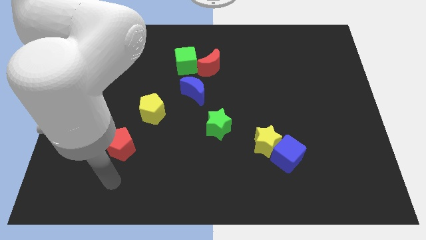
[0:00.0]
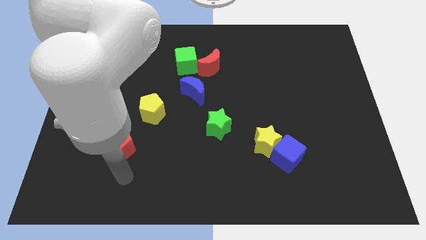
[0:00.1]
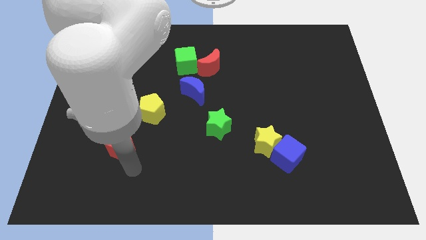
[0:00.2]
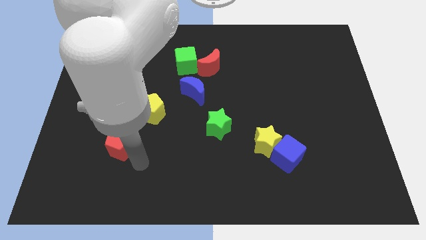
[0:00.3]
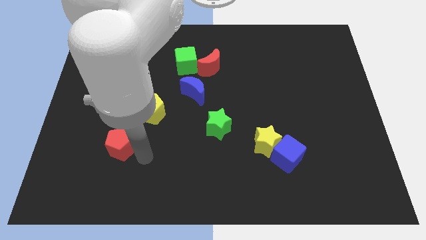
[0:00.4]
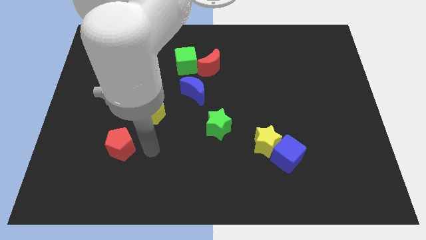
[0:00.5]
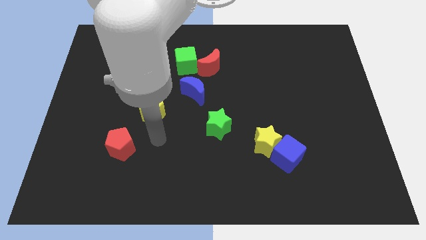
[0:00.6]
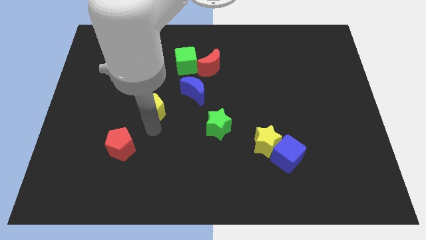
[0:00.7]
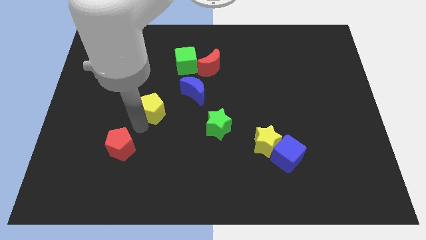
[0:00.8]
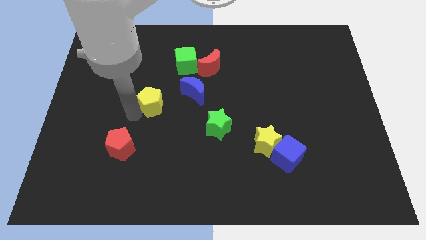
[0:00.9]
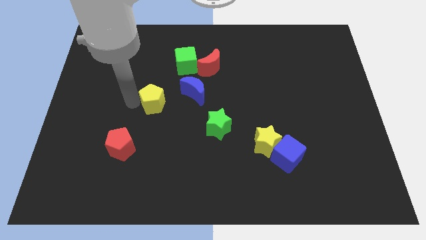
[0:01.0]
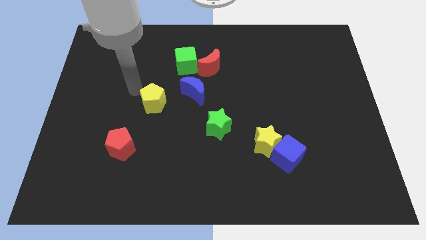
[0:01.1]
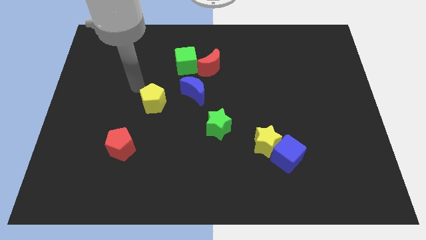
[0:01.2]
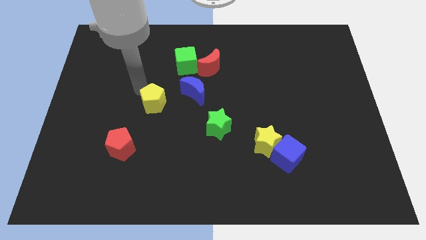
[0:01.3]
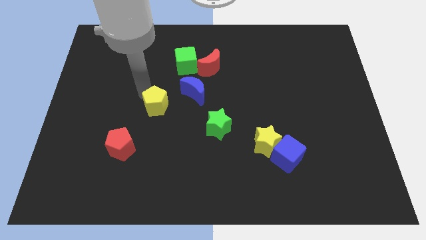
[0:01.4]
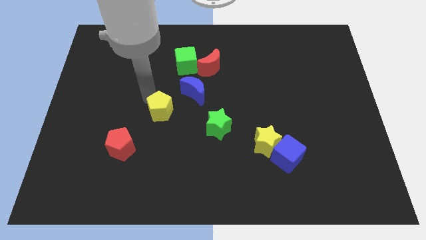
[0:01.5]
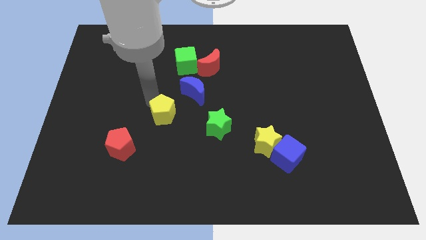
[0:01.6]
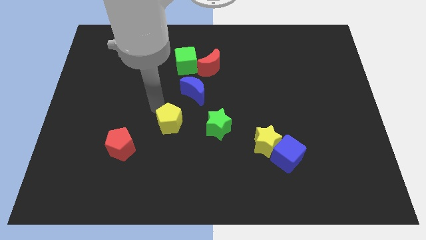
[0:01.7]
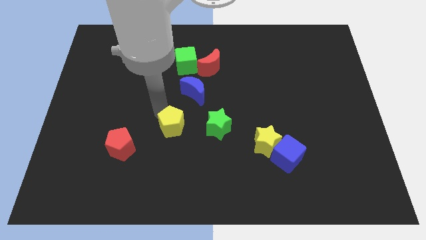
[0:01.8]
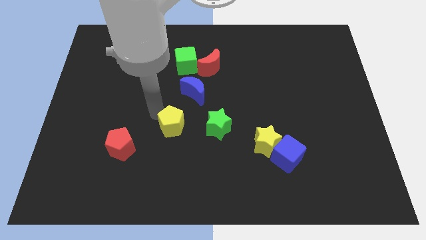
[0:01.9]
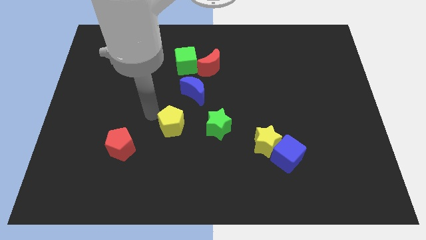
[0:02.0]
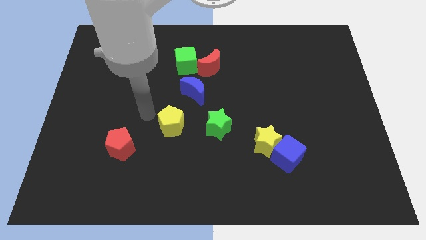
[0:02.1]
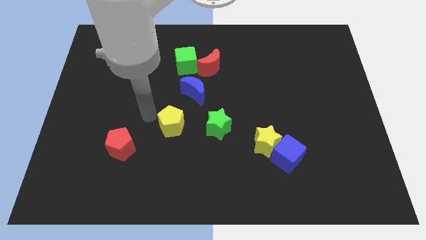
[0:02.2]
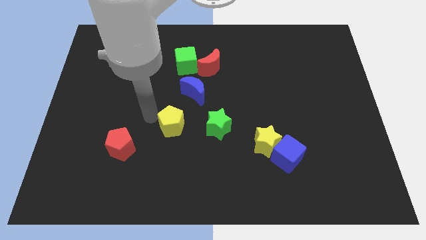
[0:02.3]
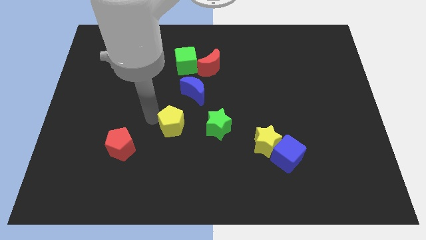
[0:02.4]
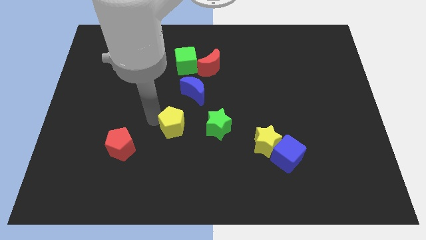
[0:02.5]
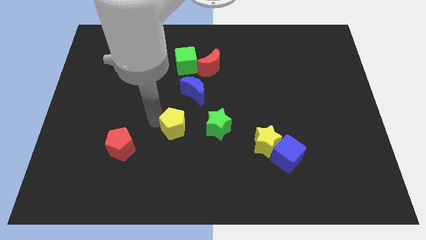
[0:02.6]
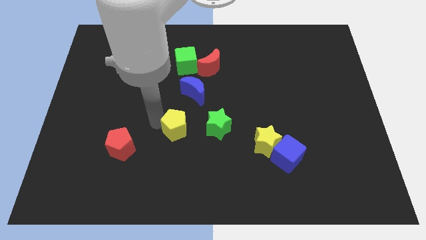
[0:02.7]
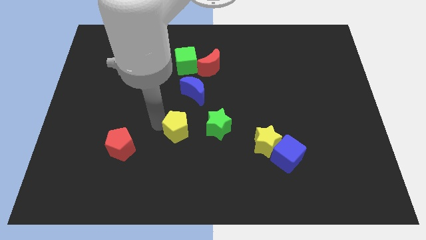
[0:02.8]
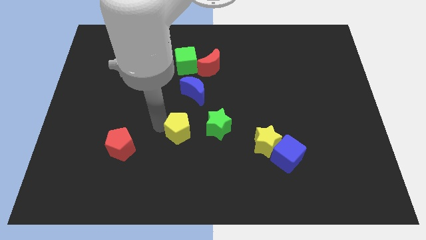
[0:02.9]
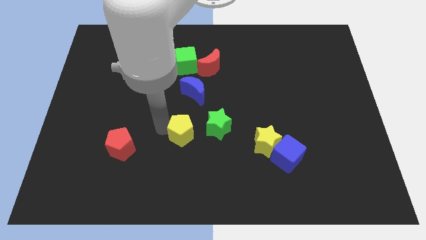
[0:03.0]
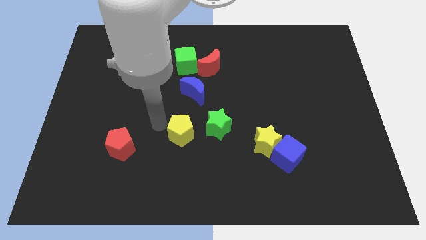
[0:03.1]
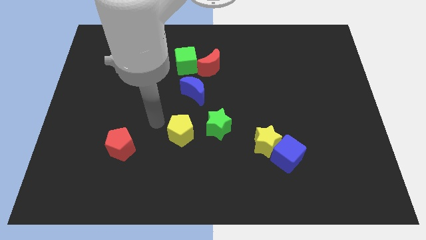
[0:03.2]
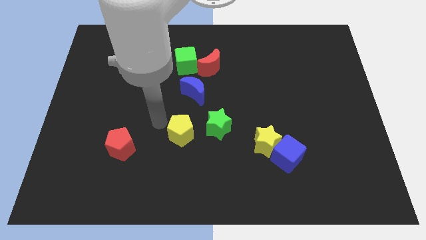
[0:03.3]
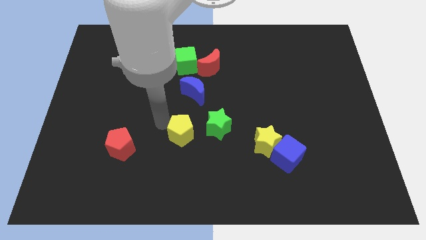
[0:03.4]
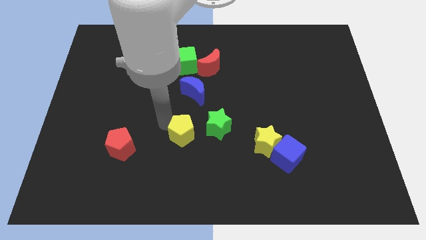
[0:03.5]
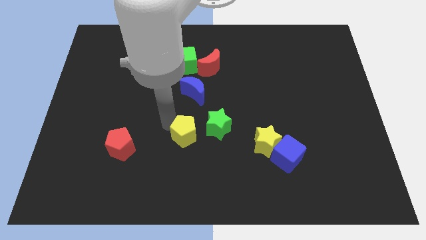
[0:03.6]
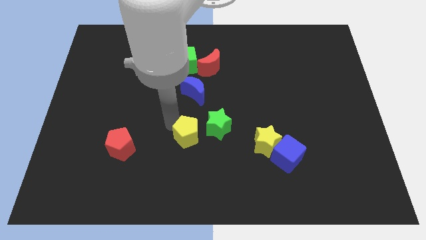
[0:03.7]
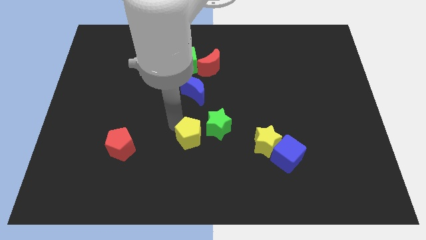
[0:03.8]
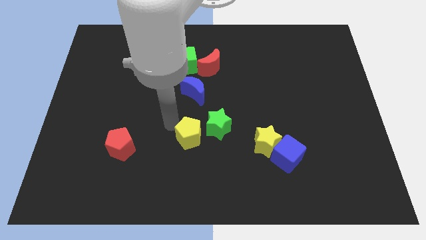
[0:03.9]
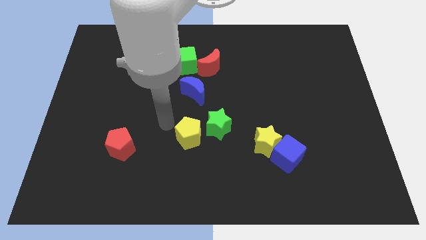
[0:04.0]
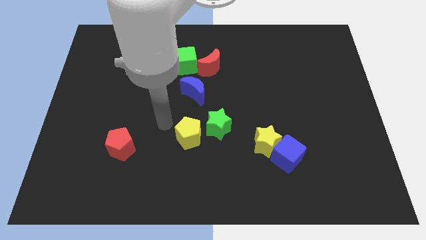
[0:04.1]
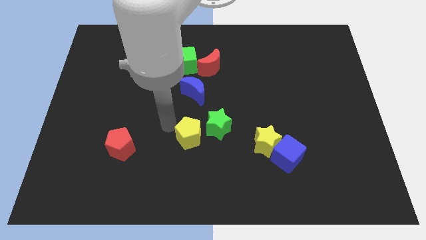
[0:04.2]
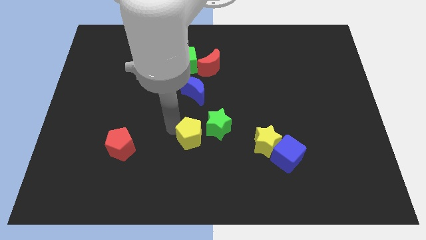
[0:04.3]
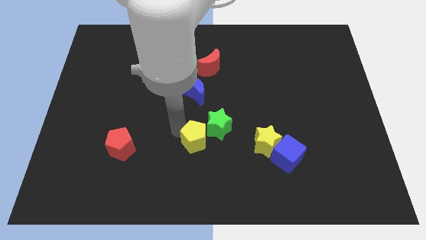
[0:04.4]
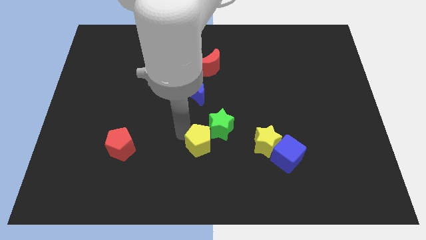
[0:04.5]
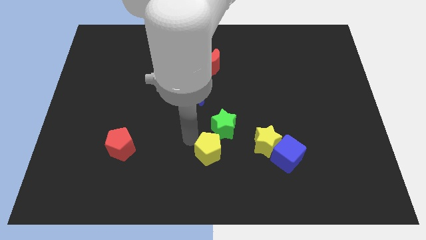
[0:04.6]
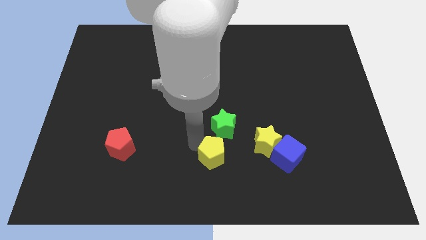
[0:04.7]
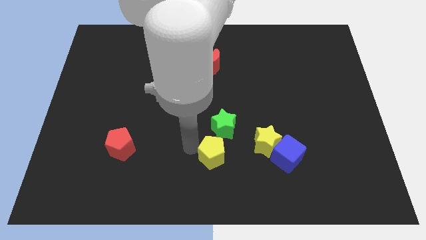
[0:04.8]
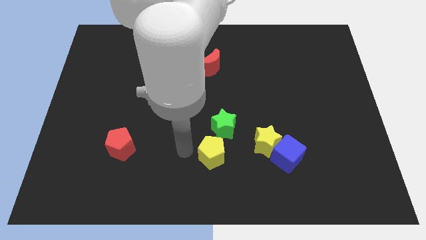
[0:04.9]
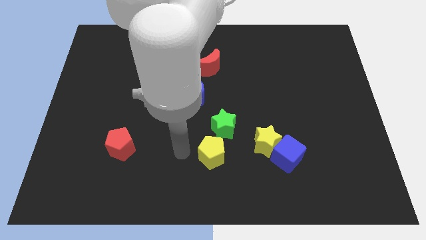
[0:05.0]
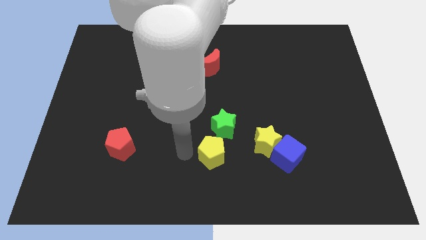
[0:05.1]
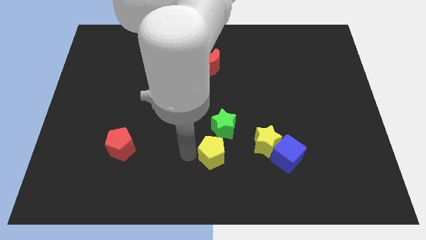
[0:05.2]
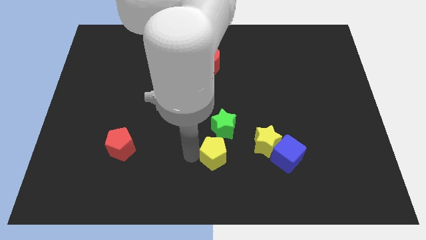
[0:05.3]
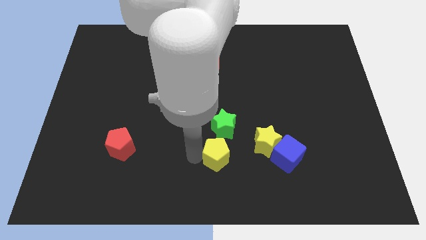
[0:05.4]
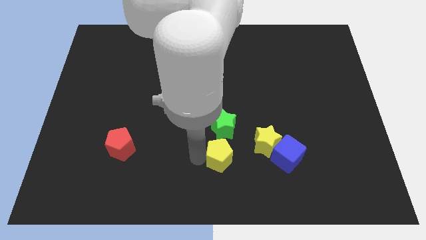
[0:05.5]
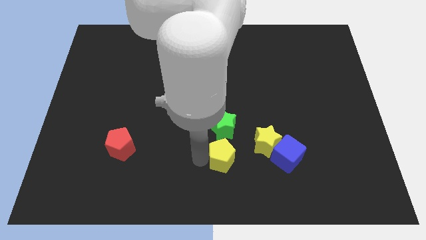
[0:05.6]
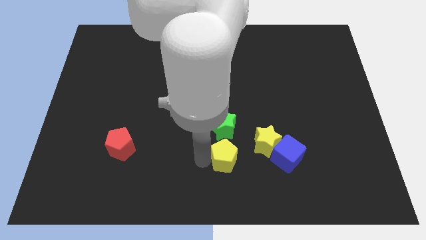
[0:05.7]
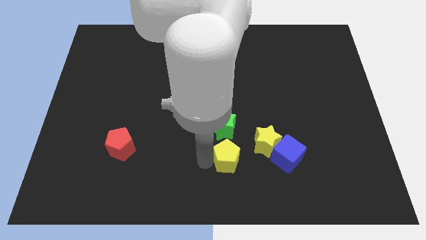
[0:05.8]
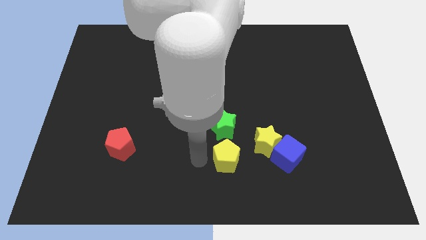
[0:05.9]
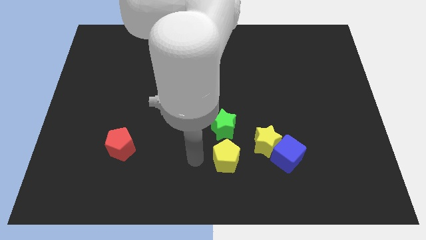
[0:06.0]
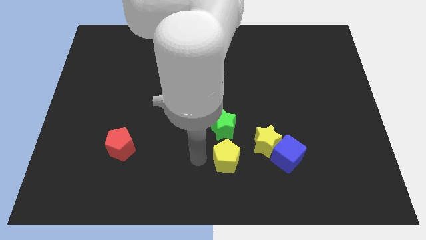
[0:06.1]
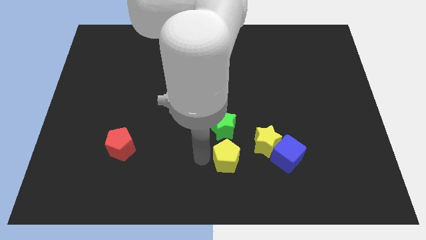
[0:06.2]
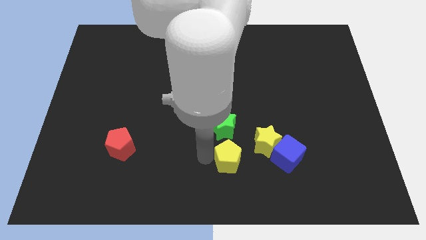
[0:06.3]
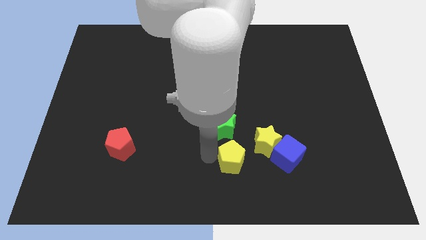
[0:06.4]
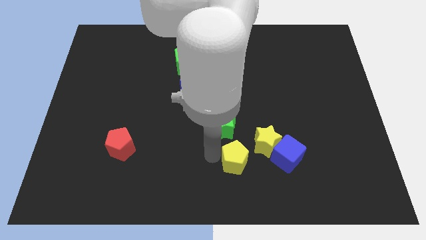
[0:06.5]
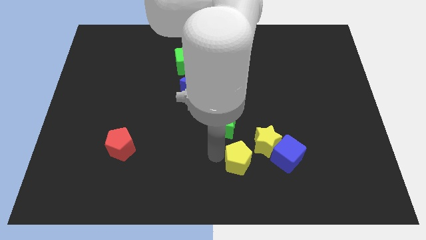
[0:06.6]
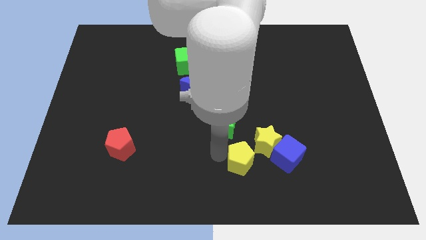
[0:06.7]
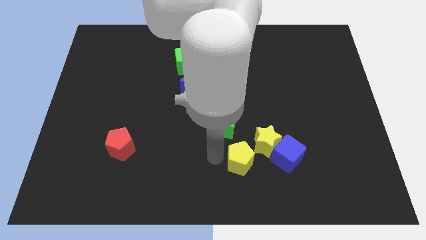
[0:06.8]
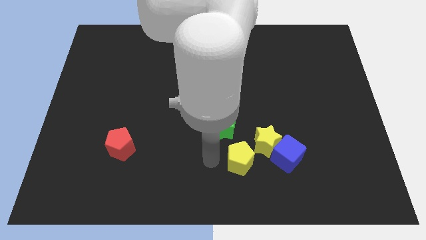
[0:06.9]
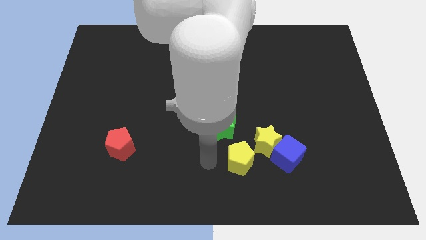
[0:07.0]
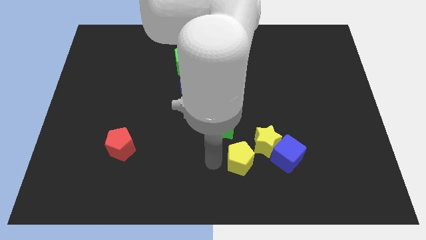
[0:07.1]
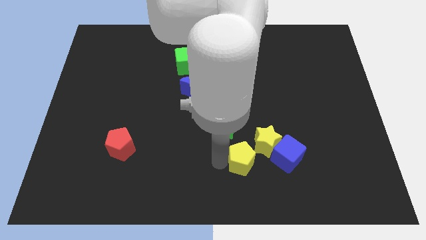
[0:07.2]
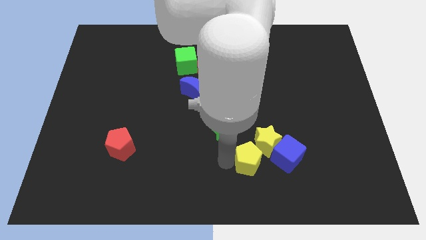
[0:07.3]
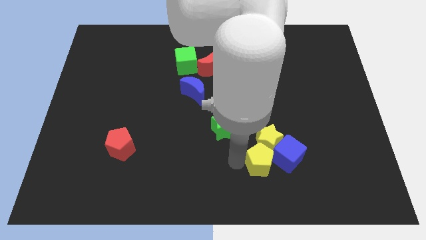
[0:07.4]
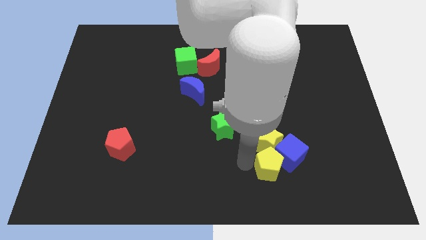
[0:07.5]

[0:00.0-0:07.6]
push the yellow pentagon next to the blue cube
